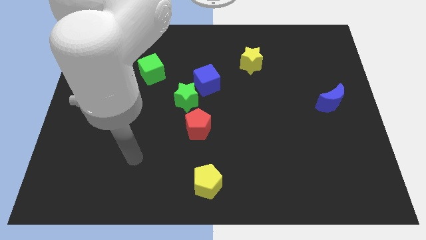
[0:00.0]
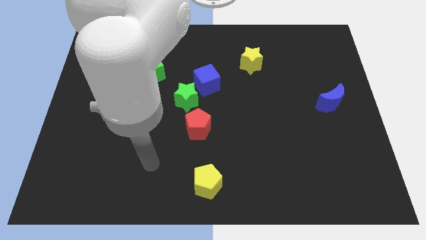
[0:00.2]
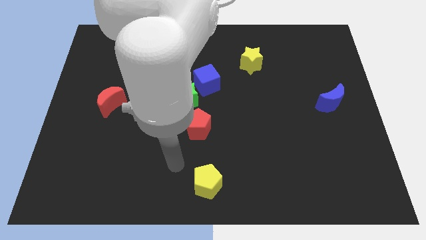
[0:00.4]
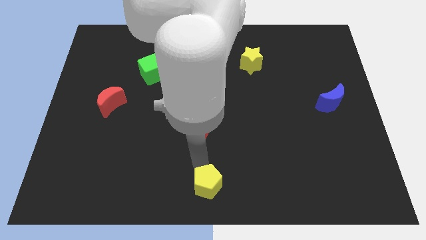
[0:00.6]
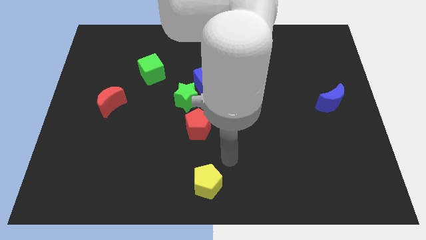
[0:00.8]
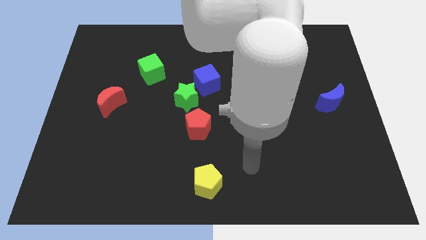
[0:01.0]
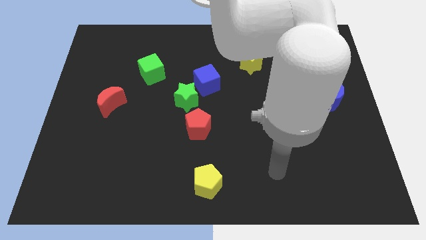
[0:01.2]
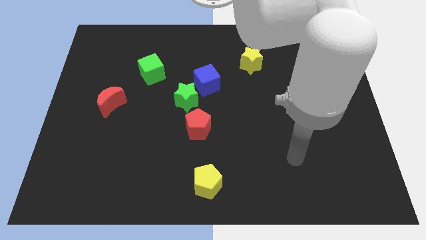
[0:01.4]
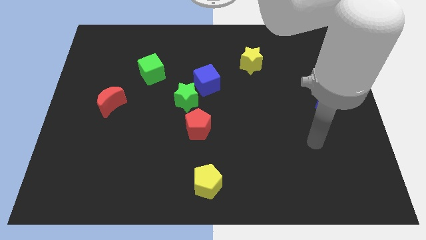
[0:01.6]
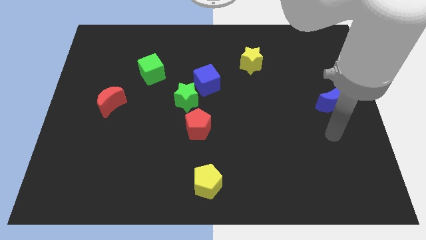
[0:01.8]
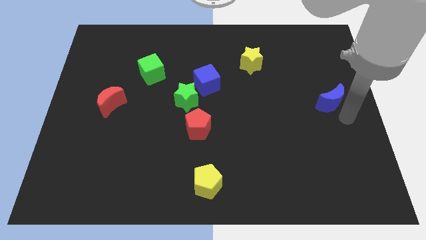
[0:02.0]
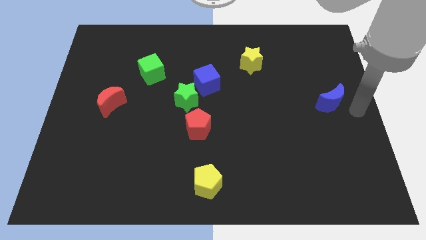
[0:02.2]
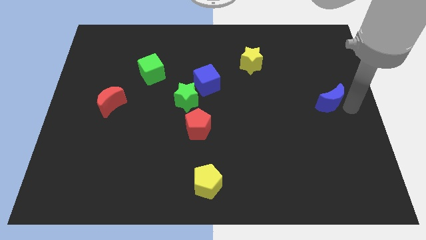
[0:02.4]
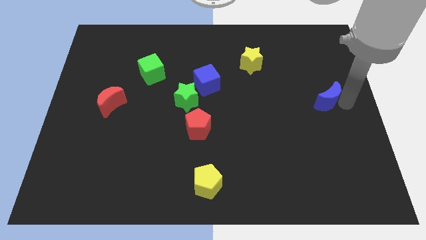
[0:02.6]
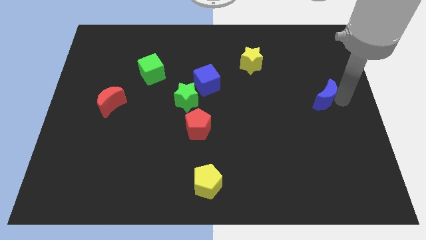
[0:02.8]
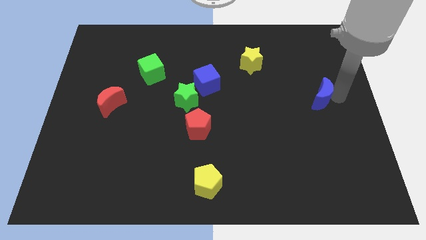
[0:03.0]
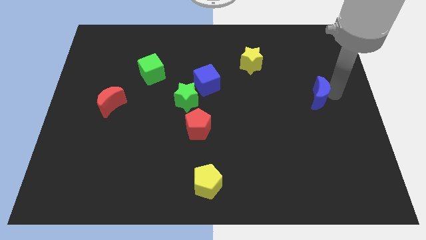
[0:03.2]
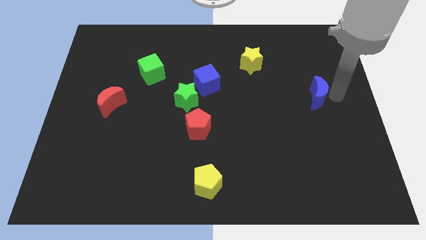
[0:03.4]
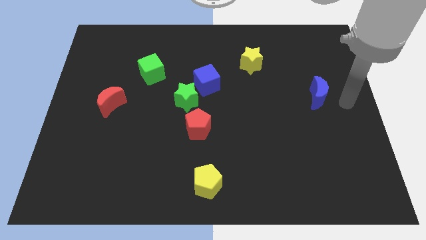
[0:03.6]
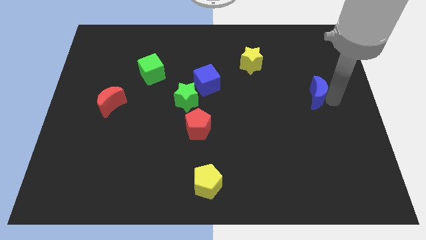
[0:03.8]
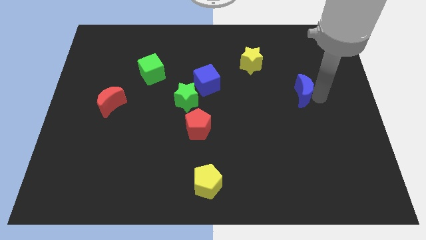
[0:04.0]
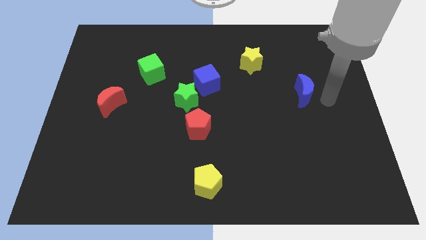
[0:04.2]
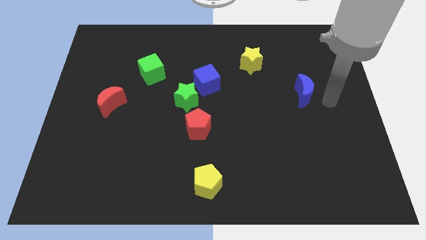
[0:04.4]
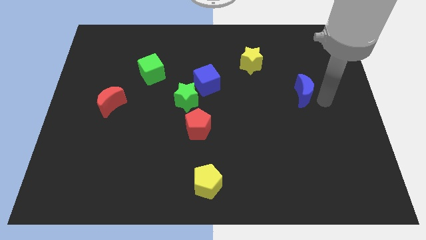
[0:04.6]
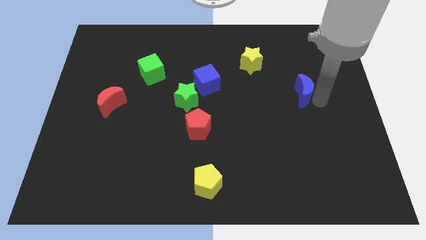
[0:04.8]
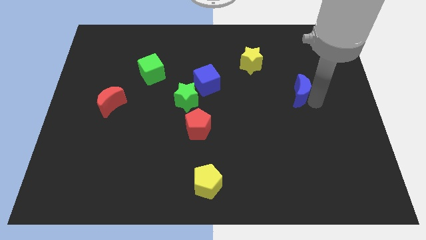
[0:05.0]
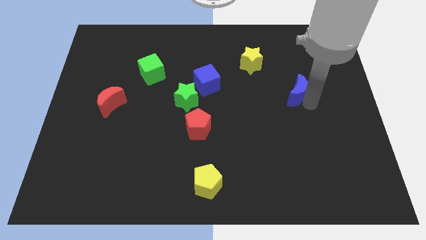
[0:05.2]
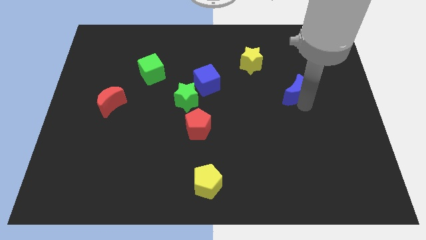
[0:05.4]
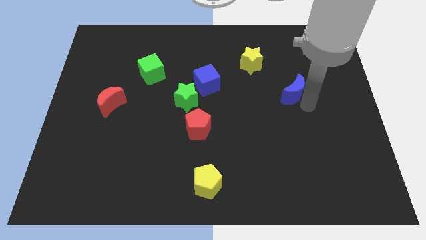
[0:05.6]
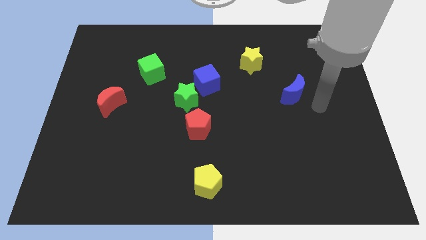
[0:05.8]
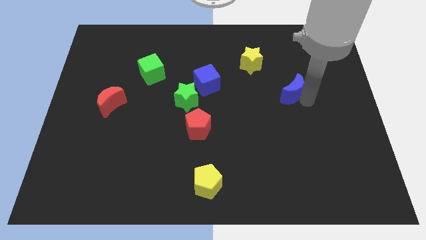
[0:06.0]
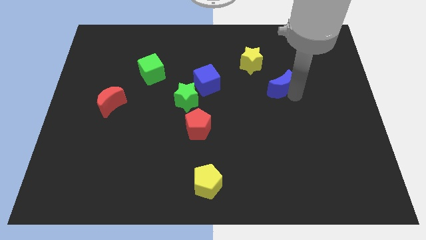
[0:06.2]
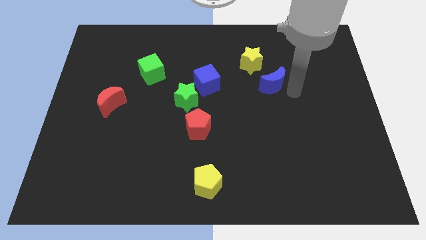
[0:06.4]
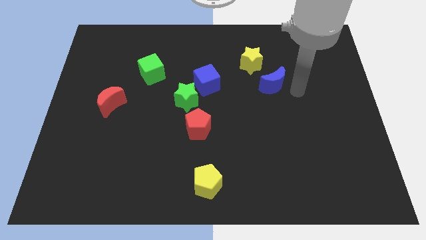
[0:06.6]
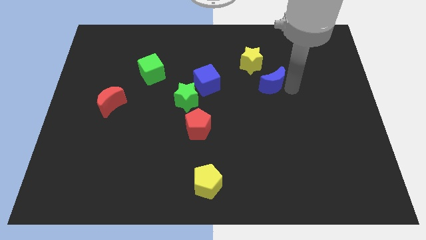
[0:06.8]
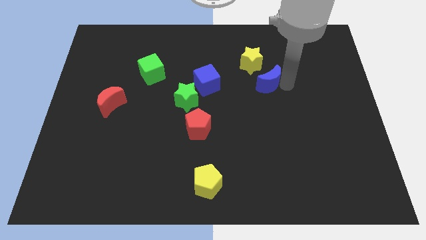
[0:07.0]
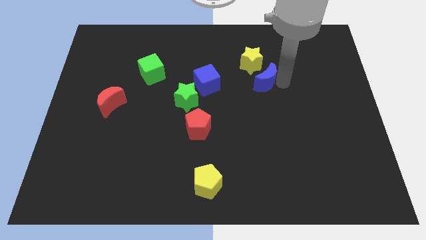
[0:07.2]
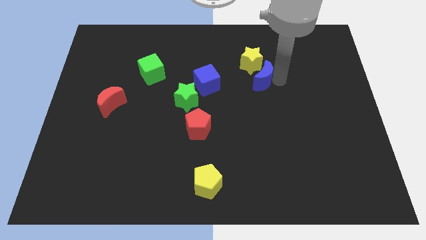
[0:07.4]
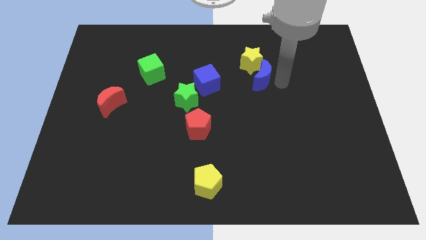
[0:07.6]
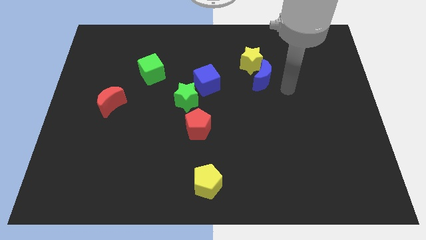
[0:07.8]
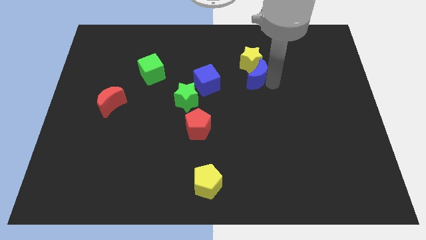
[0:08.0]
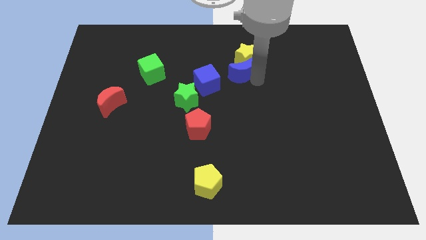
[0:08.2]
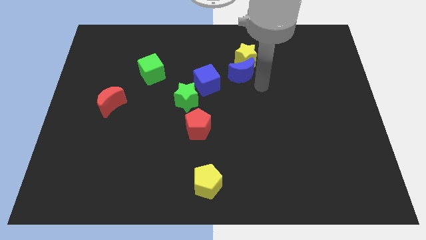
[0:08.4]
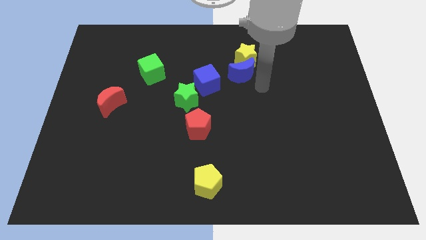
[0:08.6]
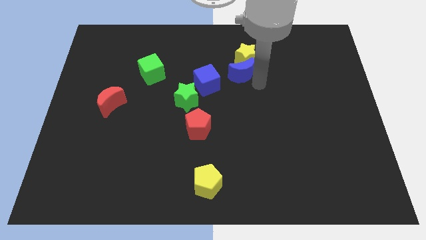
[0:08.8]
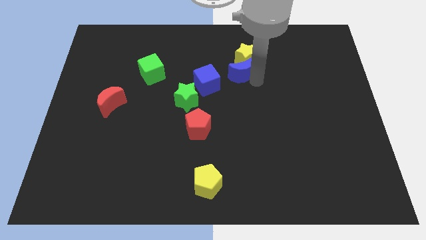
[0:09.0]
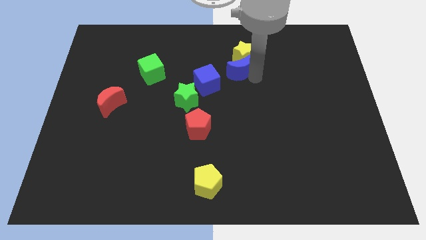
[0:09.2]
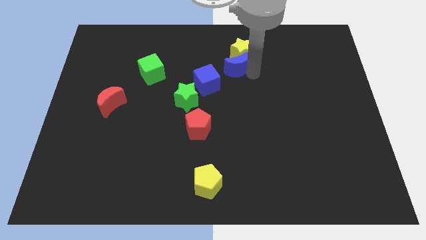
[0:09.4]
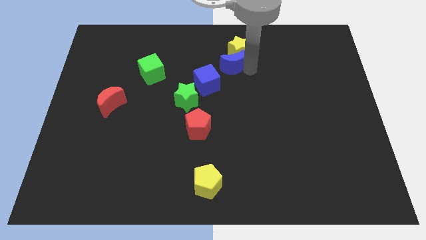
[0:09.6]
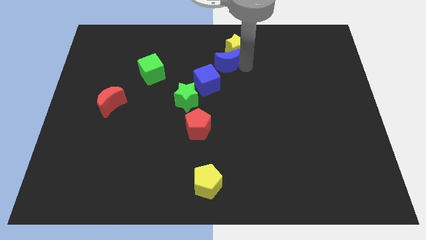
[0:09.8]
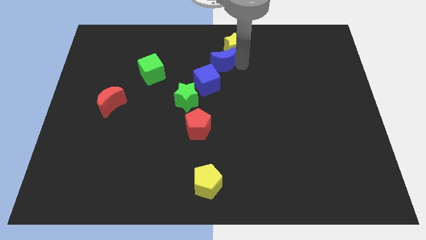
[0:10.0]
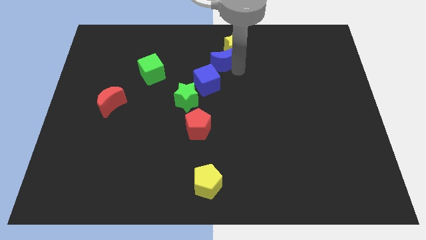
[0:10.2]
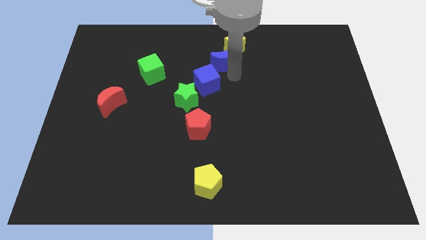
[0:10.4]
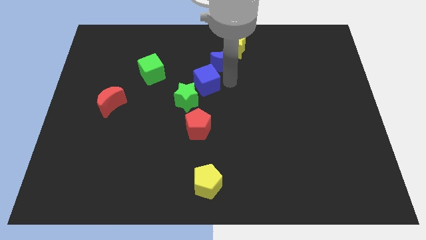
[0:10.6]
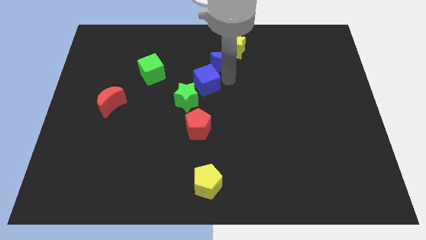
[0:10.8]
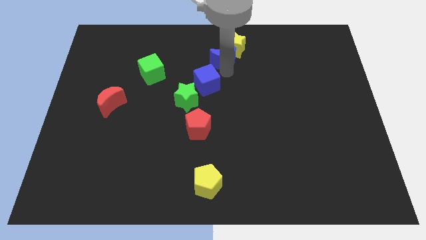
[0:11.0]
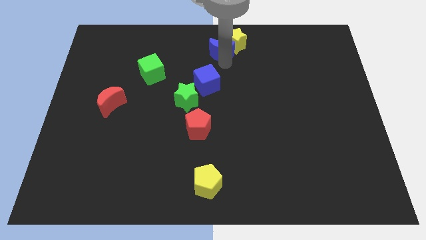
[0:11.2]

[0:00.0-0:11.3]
move the blue moon to the towards your base
